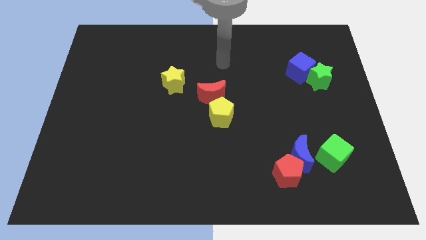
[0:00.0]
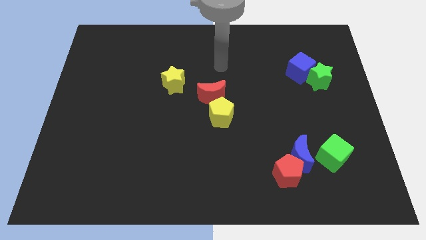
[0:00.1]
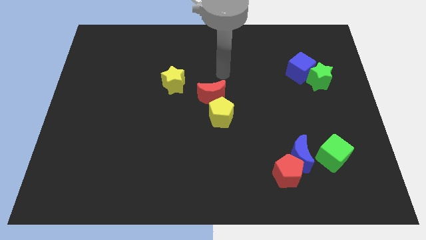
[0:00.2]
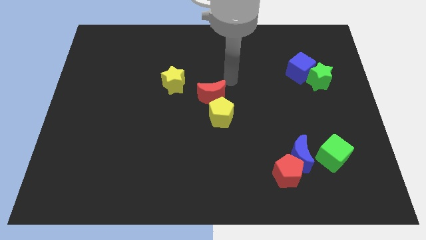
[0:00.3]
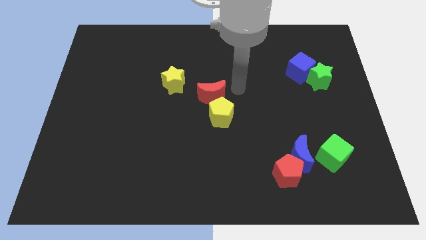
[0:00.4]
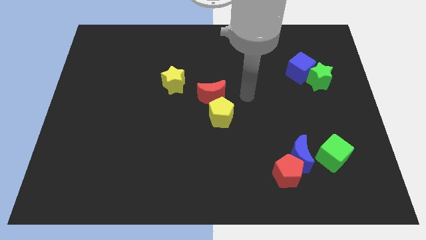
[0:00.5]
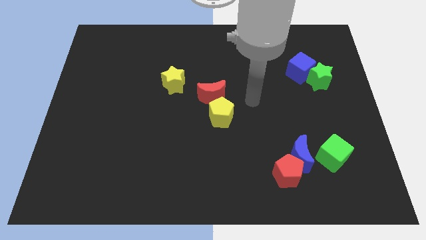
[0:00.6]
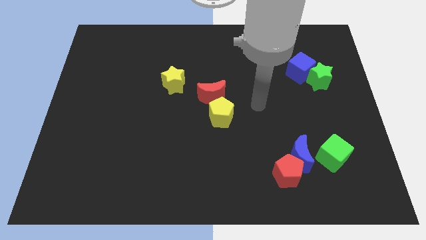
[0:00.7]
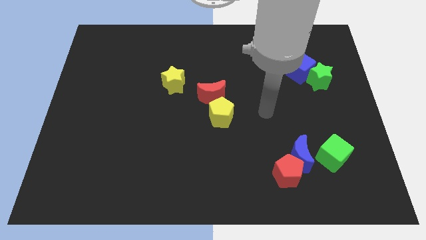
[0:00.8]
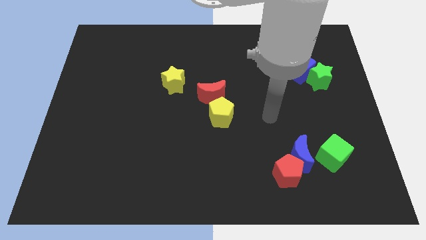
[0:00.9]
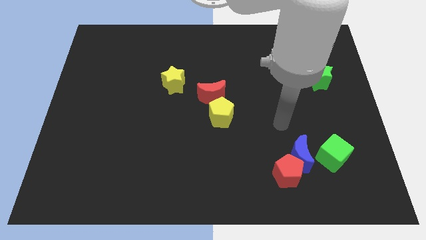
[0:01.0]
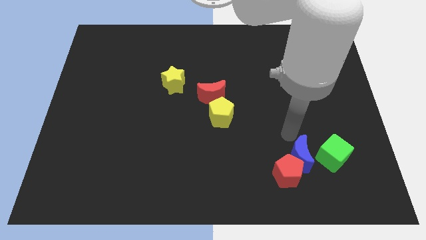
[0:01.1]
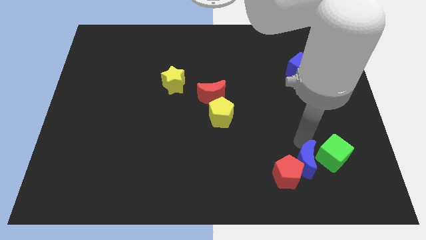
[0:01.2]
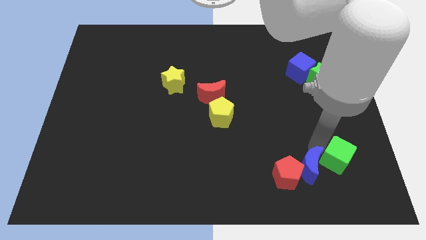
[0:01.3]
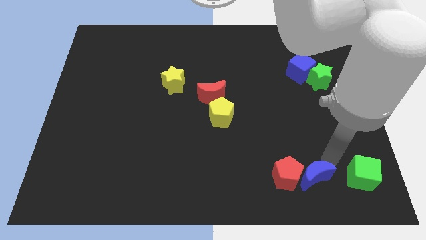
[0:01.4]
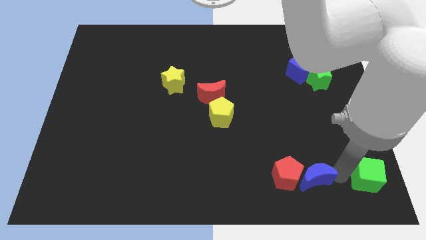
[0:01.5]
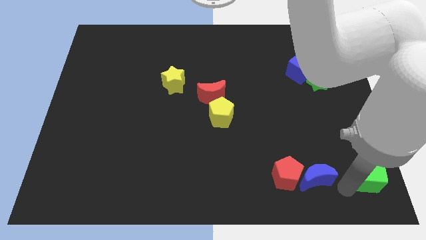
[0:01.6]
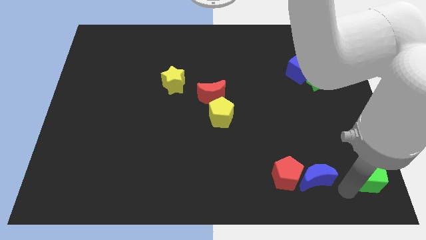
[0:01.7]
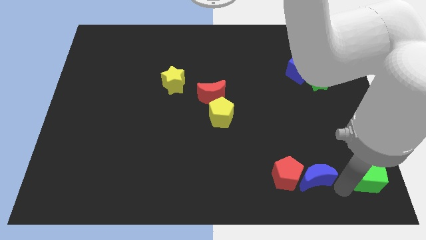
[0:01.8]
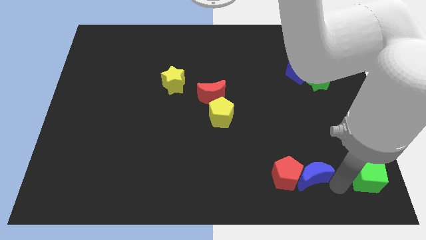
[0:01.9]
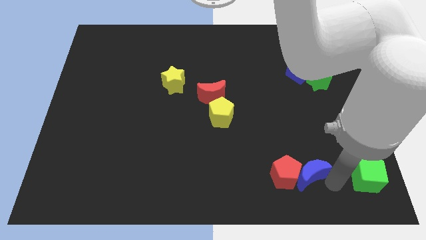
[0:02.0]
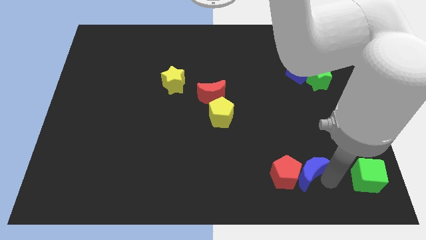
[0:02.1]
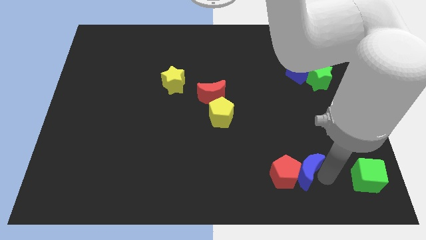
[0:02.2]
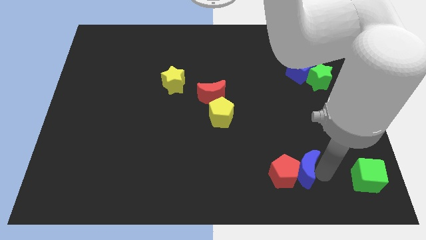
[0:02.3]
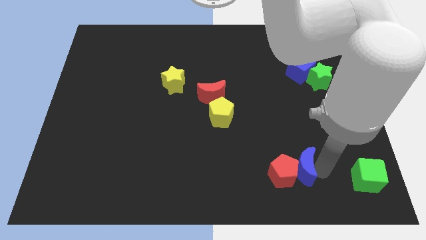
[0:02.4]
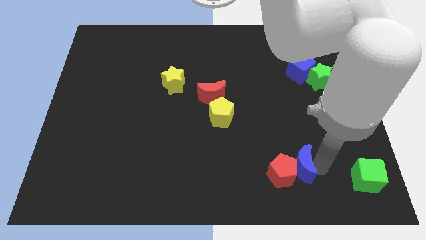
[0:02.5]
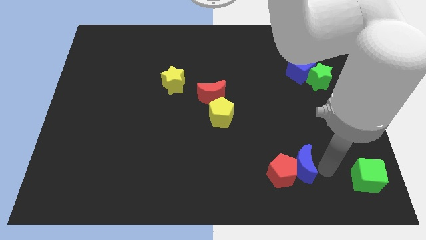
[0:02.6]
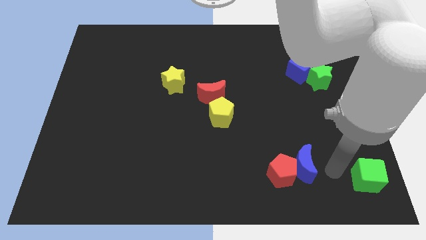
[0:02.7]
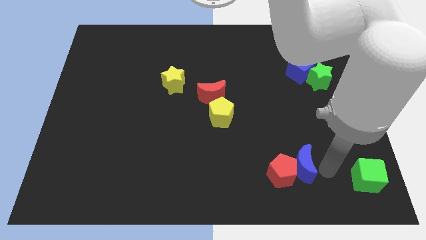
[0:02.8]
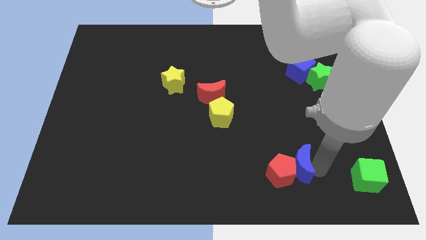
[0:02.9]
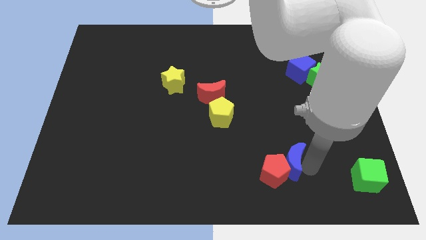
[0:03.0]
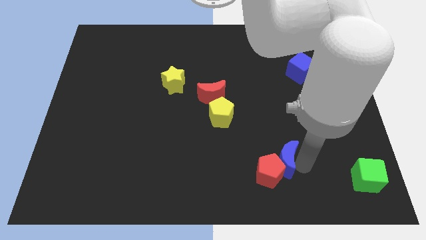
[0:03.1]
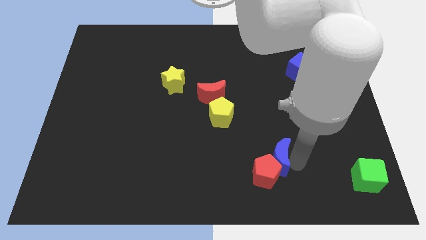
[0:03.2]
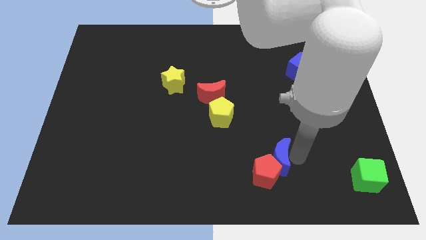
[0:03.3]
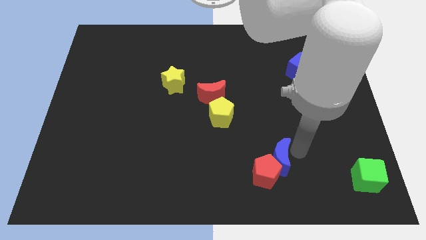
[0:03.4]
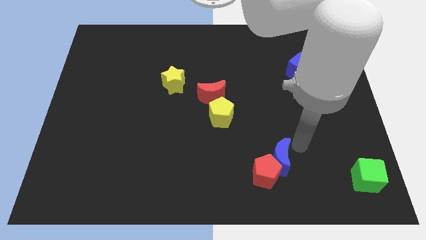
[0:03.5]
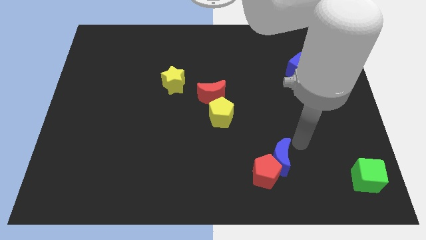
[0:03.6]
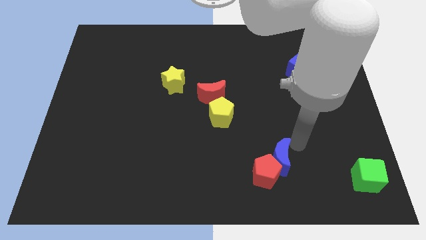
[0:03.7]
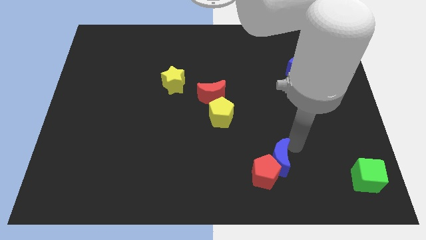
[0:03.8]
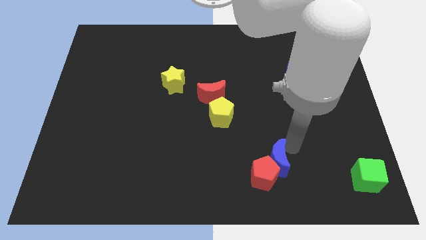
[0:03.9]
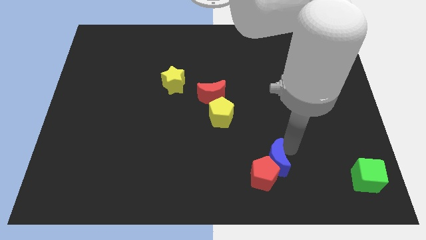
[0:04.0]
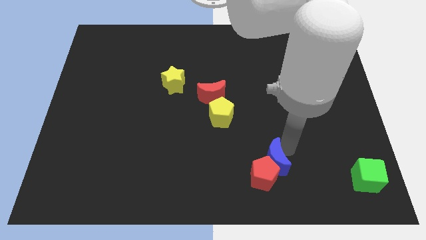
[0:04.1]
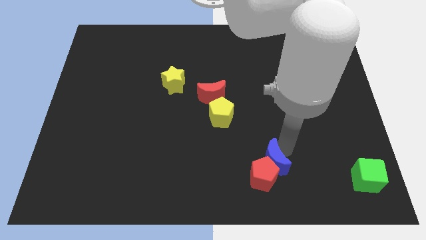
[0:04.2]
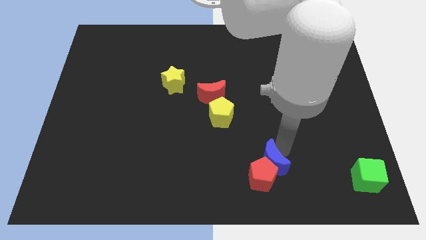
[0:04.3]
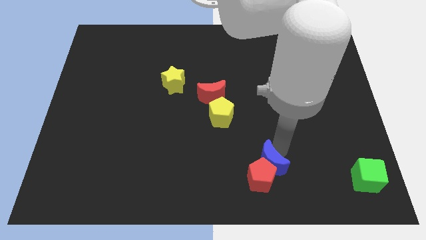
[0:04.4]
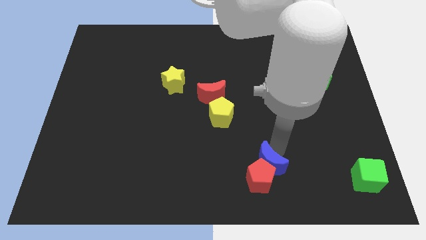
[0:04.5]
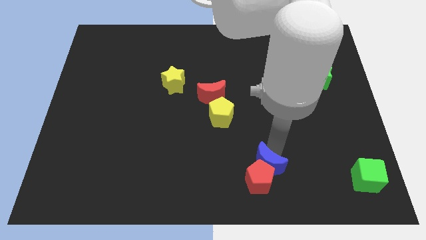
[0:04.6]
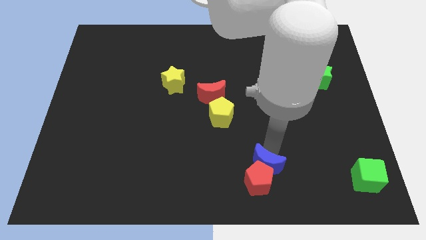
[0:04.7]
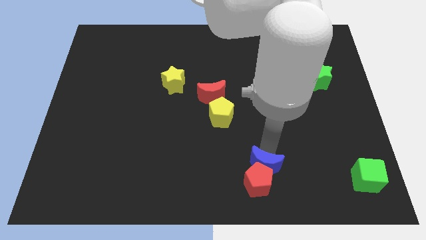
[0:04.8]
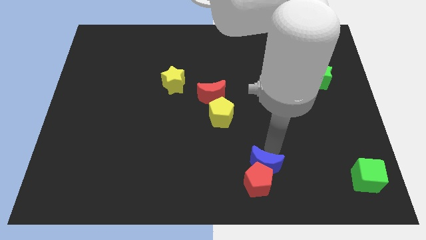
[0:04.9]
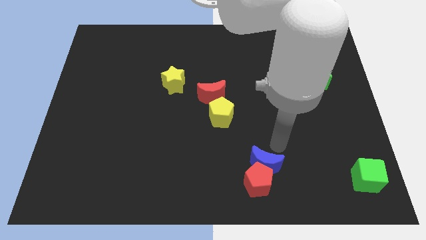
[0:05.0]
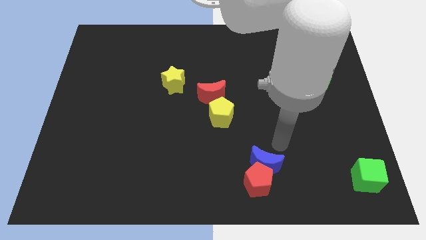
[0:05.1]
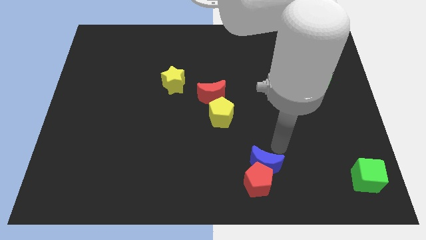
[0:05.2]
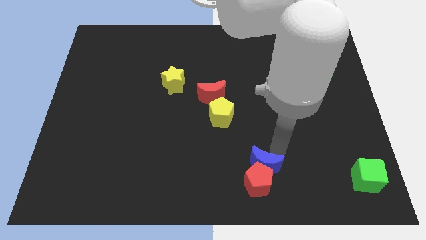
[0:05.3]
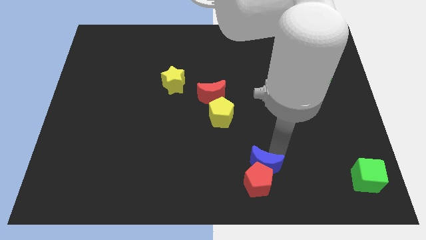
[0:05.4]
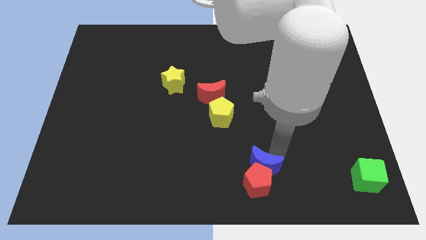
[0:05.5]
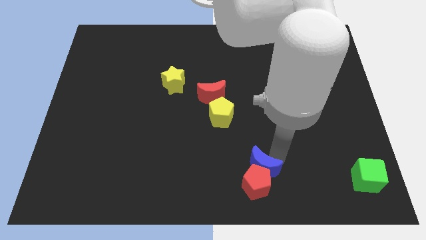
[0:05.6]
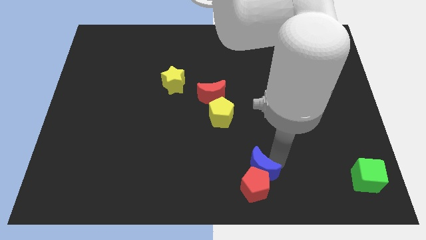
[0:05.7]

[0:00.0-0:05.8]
move the blue moon to the bottom

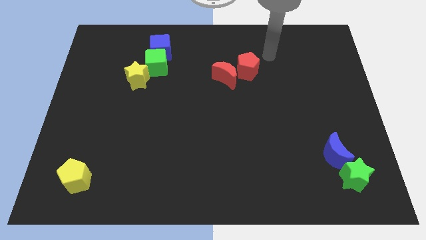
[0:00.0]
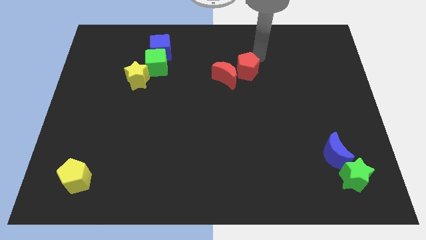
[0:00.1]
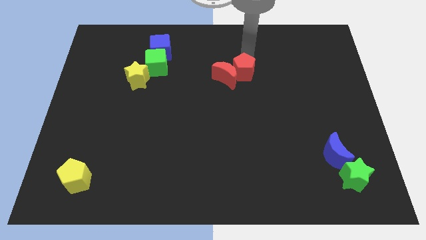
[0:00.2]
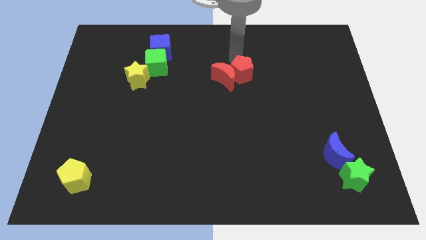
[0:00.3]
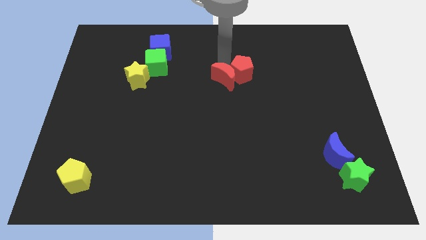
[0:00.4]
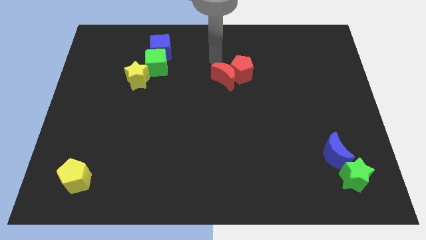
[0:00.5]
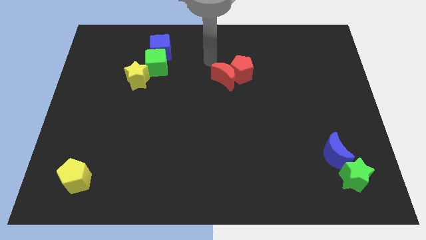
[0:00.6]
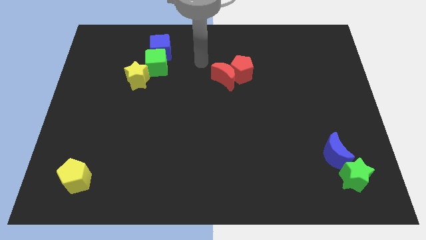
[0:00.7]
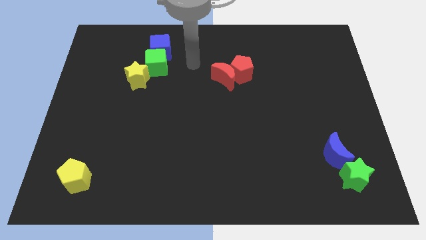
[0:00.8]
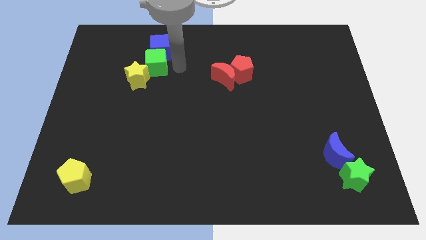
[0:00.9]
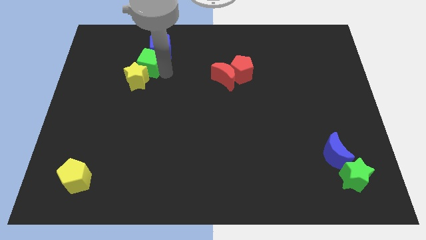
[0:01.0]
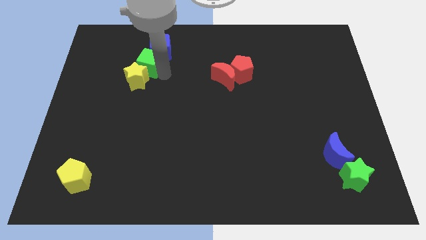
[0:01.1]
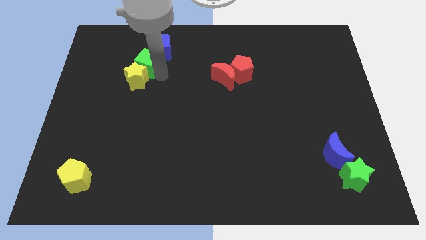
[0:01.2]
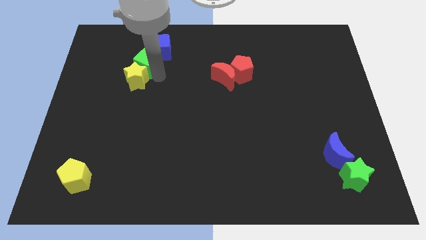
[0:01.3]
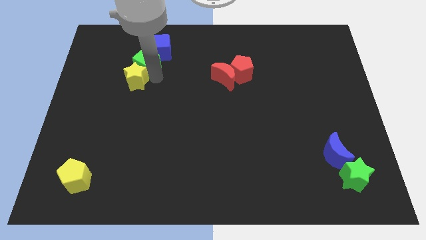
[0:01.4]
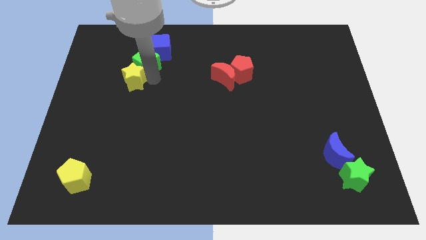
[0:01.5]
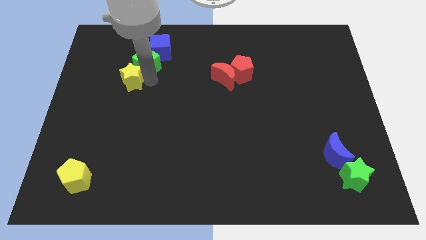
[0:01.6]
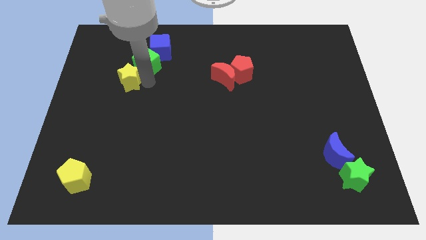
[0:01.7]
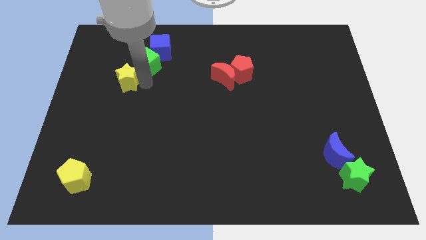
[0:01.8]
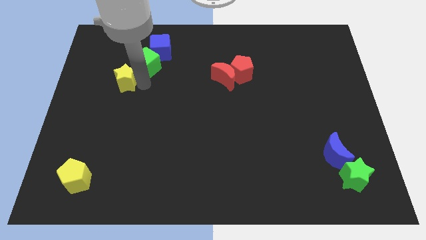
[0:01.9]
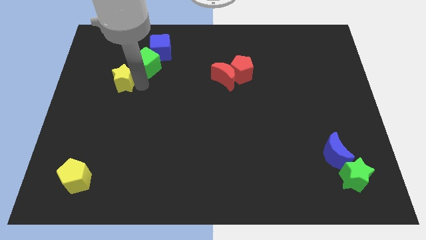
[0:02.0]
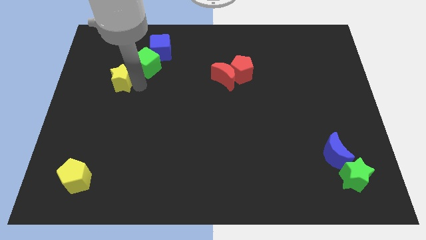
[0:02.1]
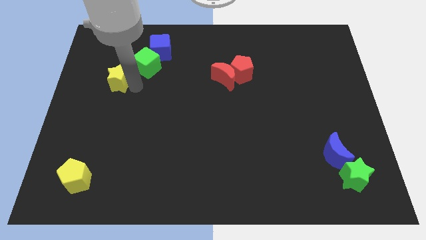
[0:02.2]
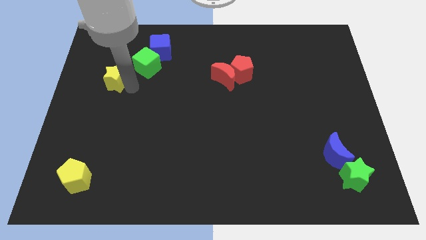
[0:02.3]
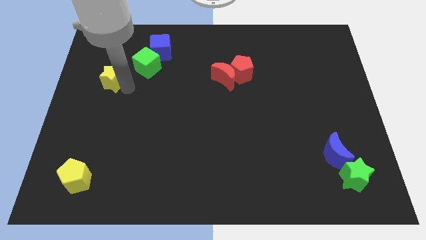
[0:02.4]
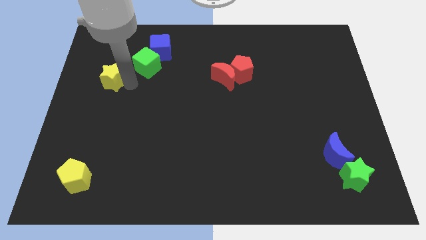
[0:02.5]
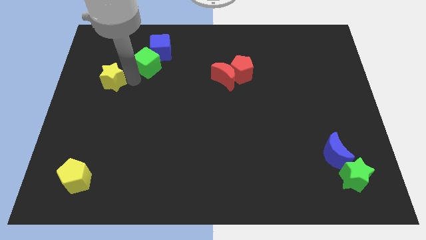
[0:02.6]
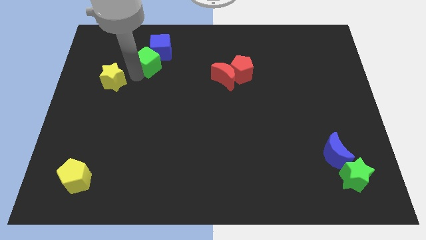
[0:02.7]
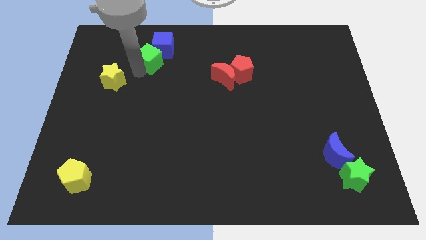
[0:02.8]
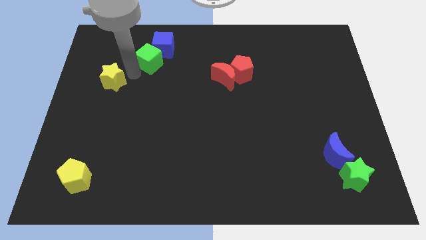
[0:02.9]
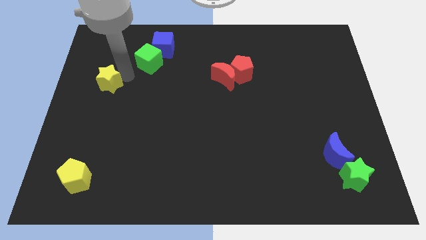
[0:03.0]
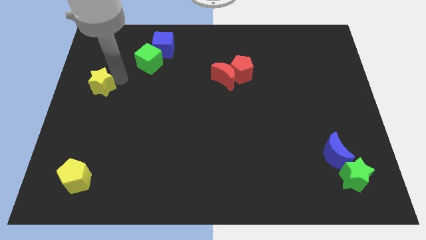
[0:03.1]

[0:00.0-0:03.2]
move the yellow star to the left side of the board
